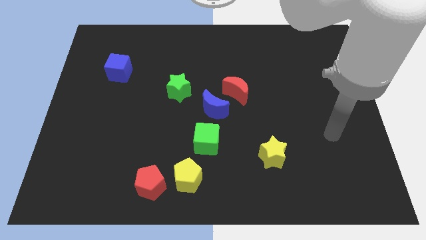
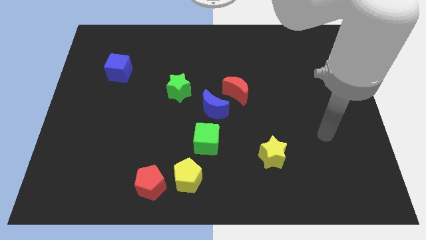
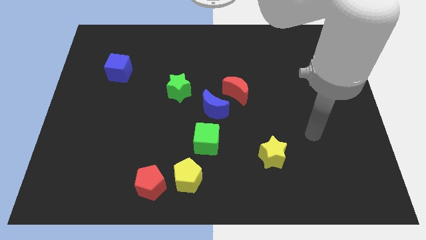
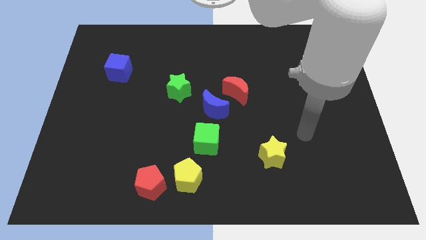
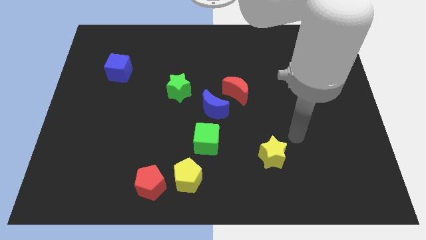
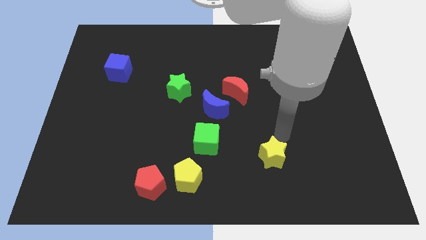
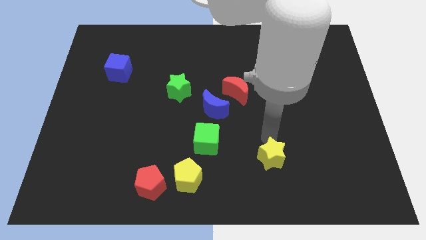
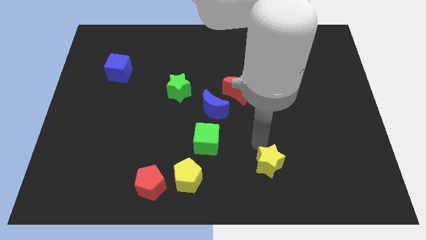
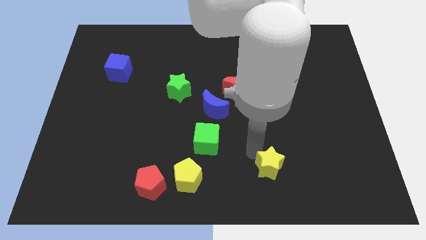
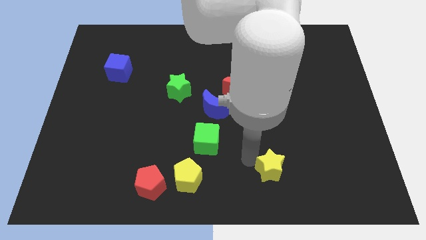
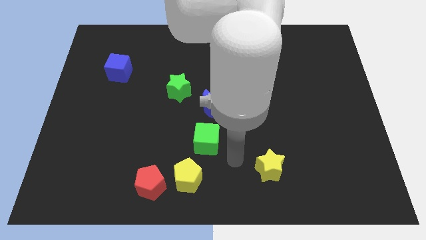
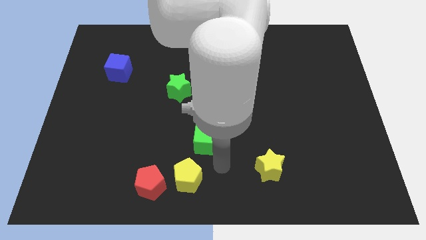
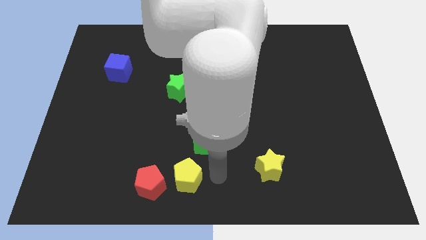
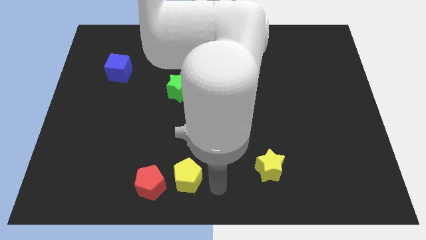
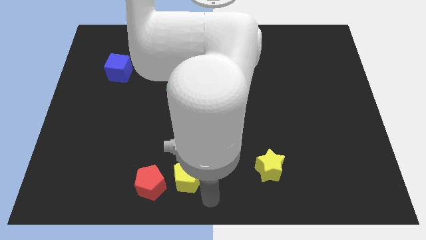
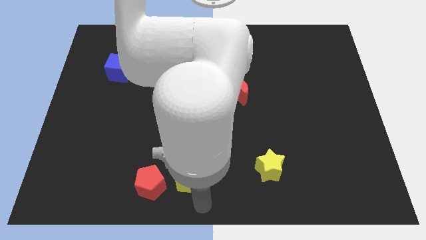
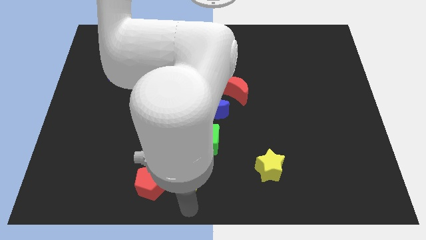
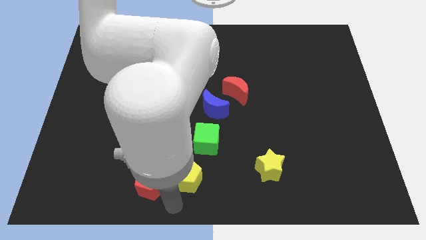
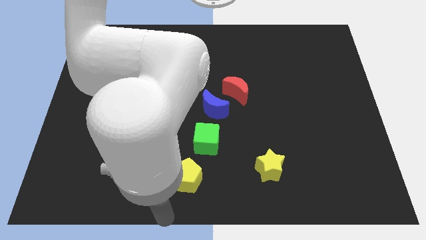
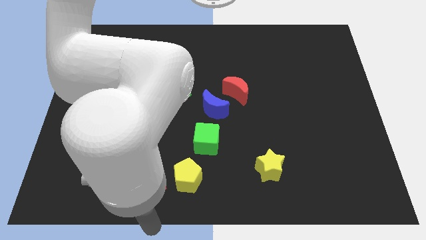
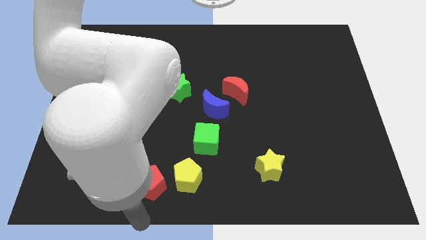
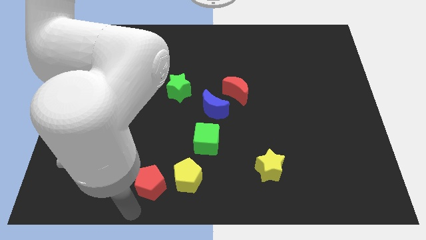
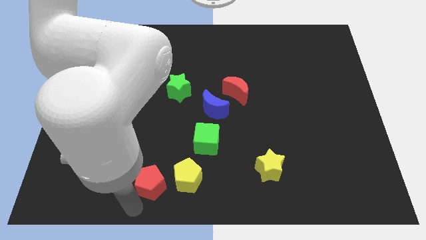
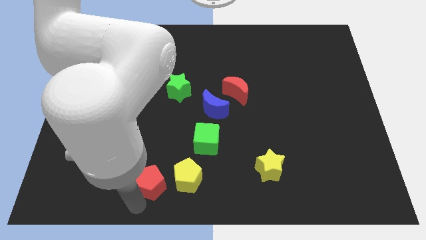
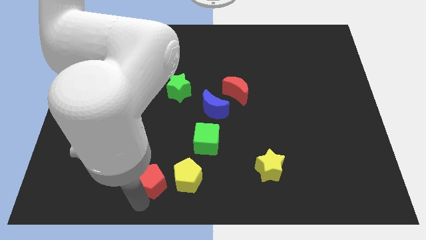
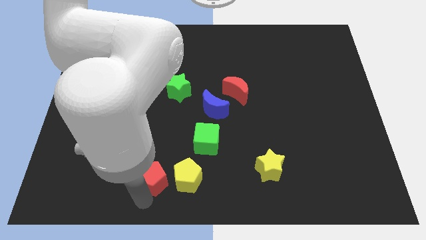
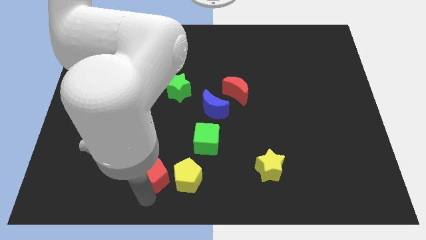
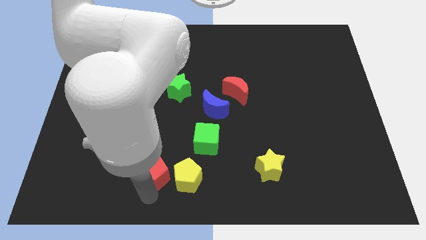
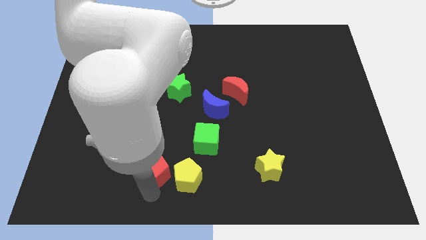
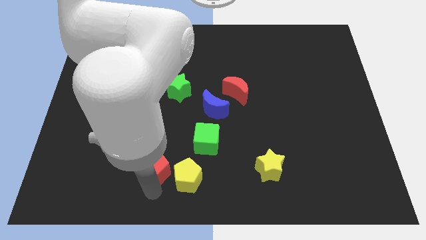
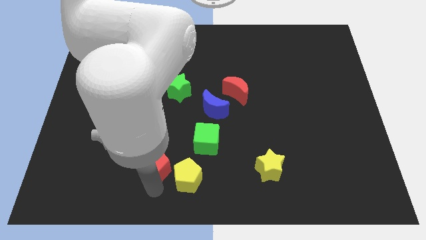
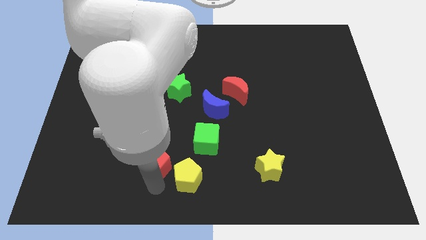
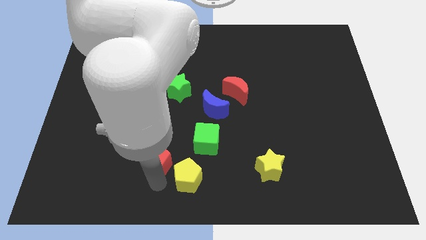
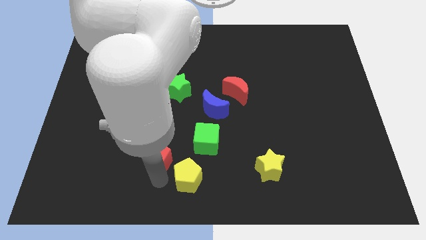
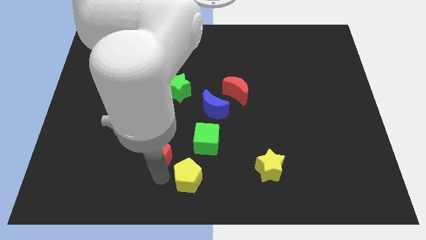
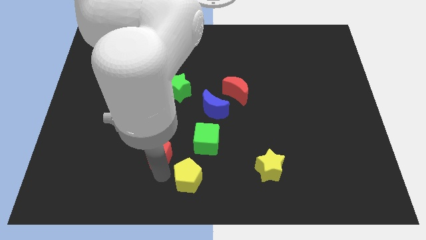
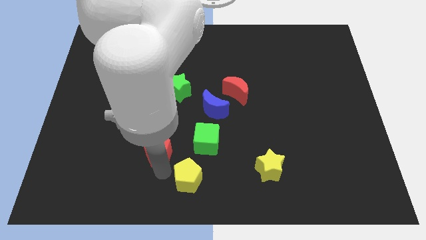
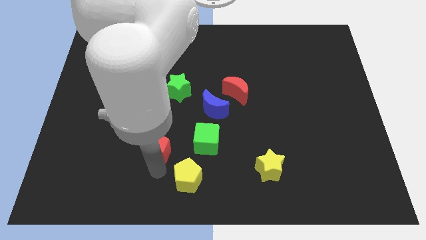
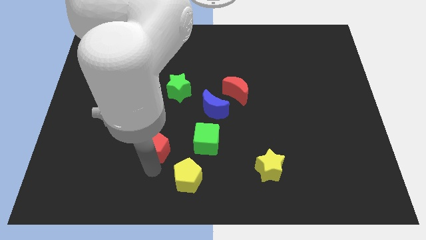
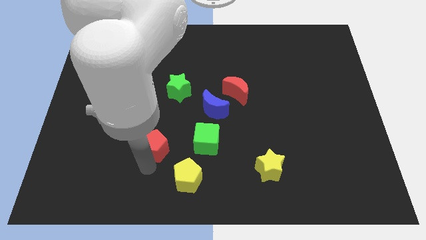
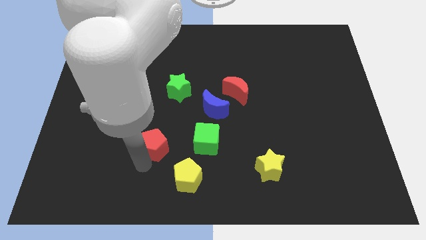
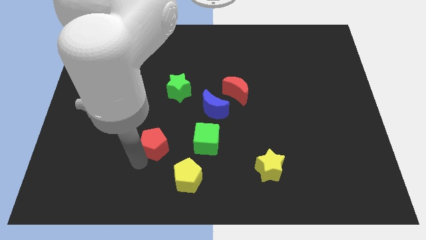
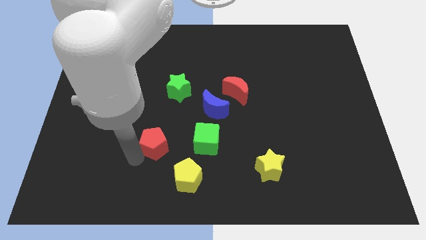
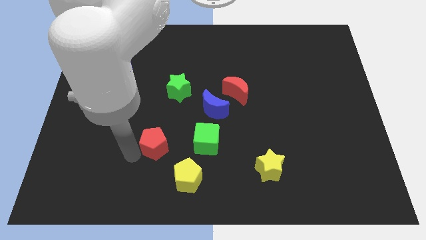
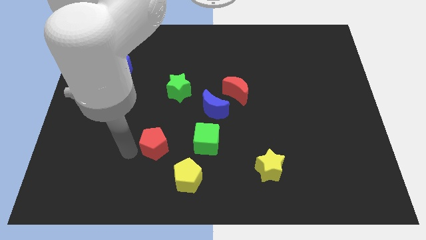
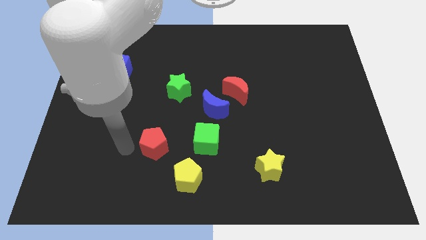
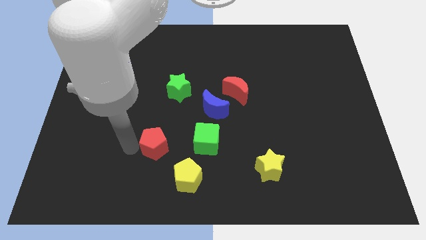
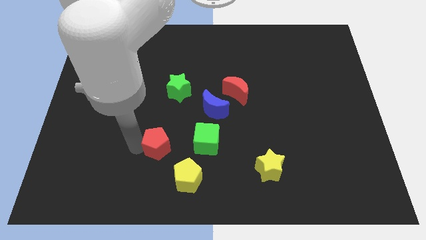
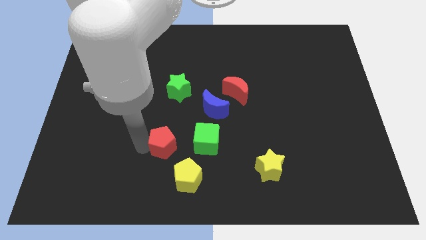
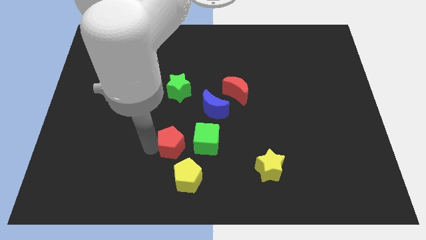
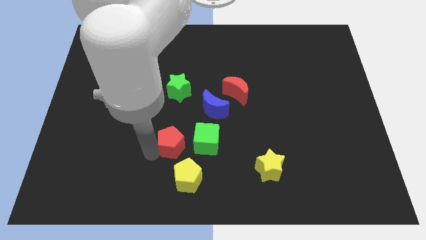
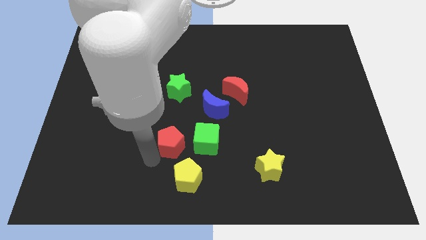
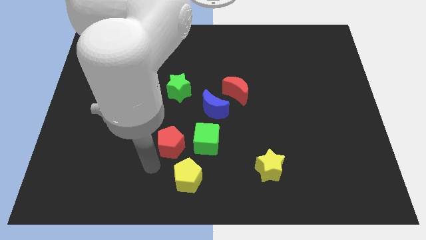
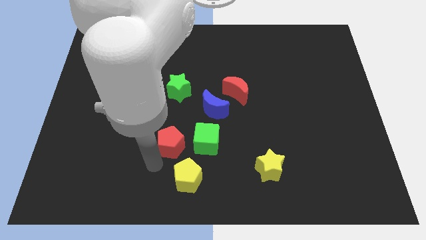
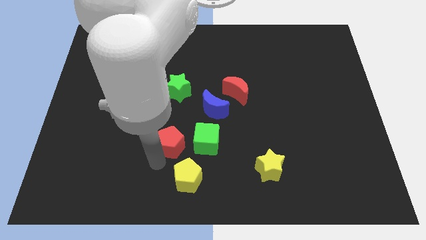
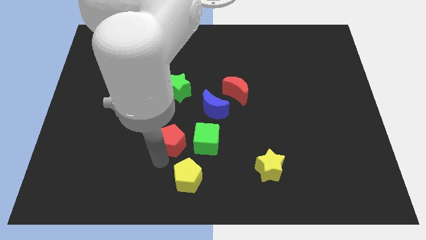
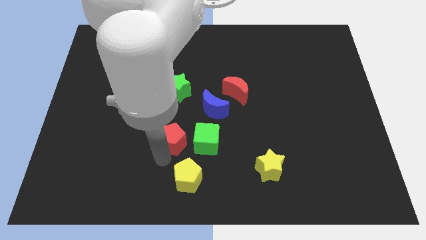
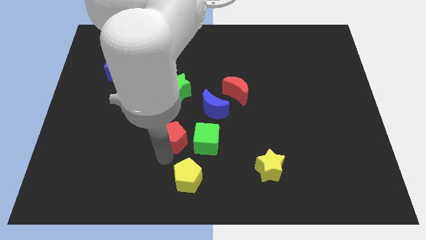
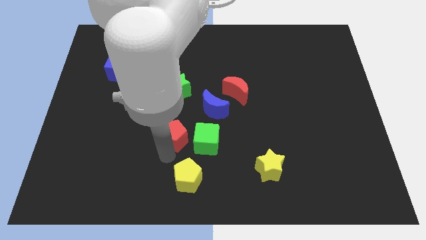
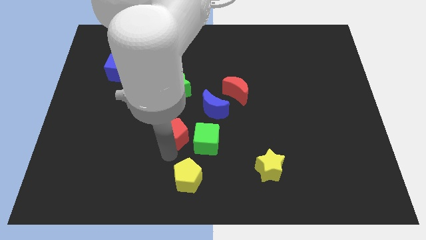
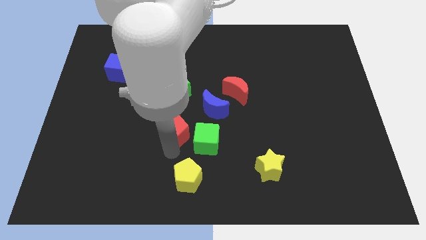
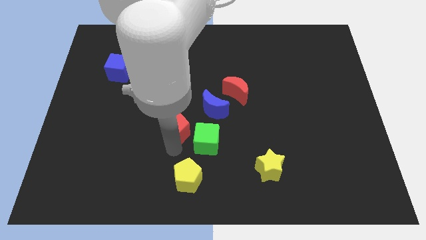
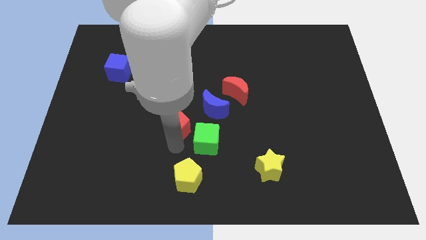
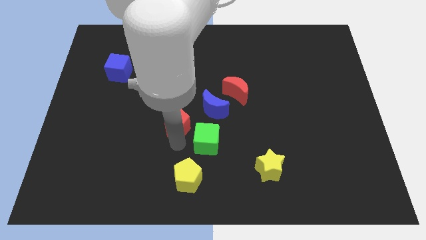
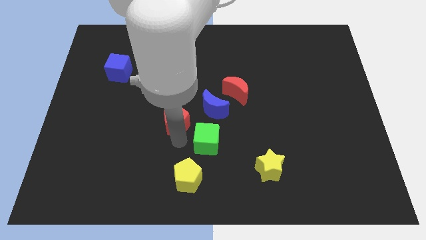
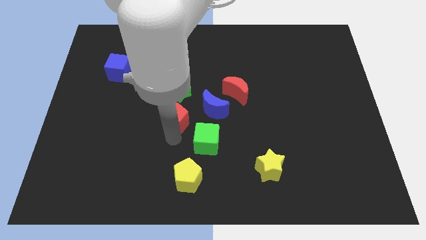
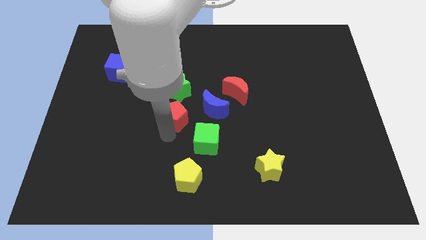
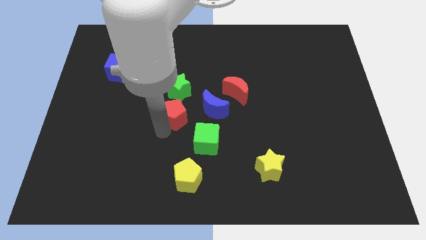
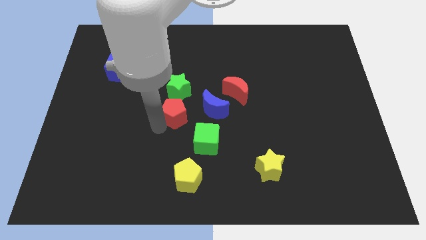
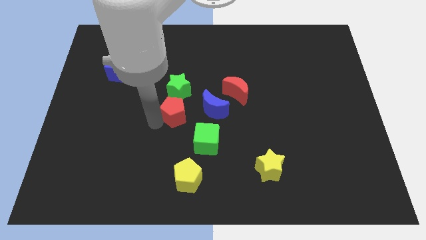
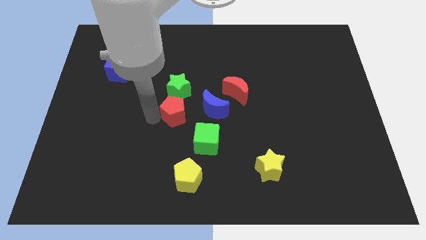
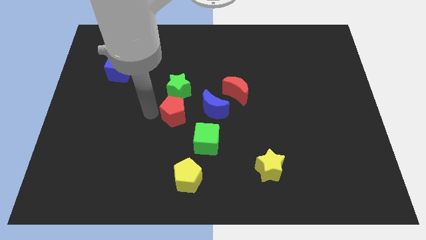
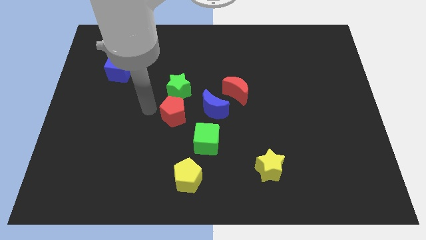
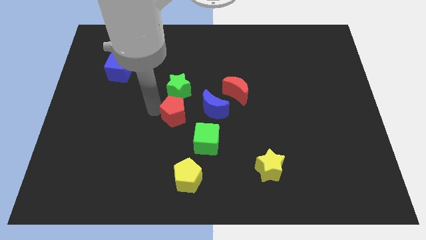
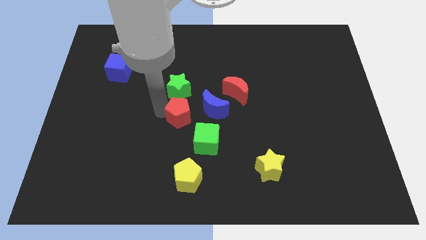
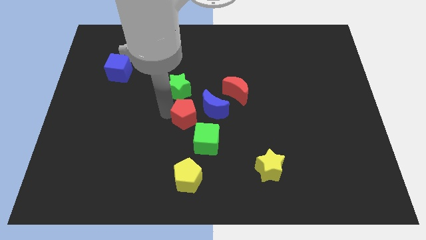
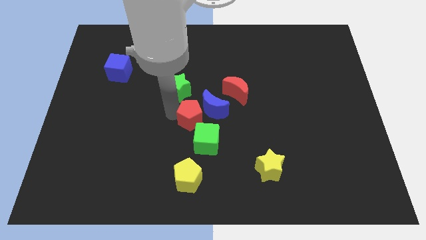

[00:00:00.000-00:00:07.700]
slide the red pentagon next to the blue moon
